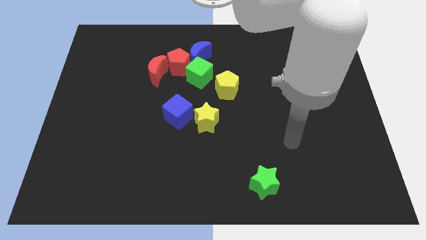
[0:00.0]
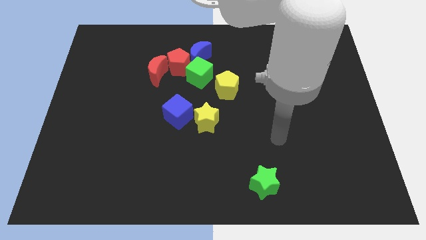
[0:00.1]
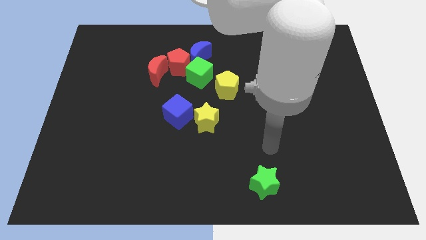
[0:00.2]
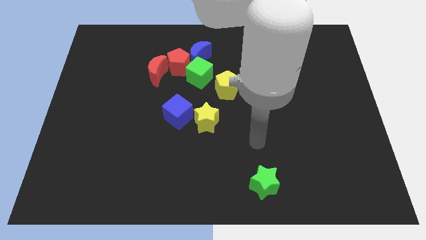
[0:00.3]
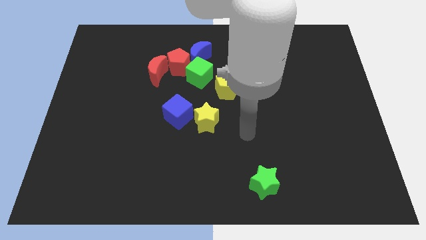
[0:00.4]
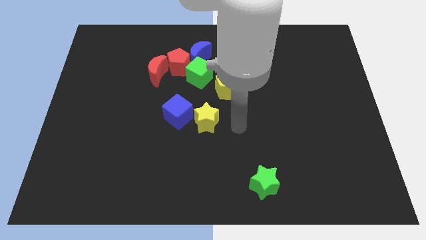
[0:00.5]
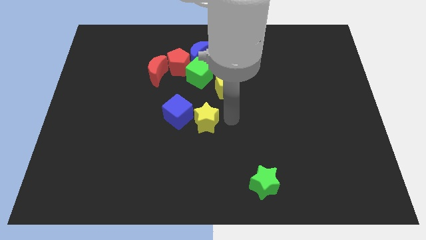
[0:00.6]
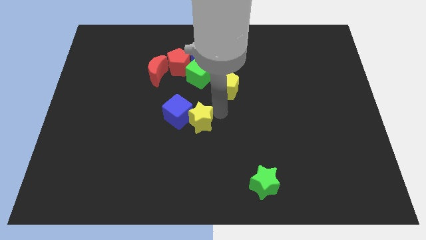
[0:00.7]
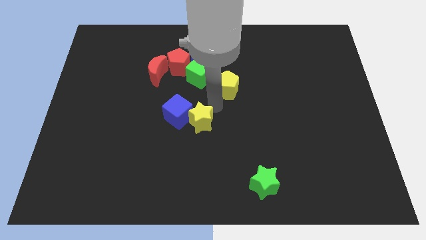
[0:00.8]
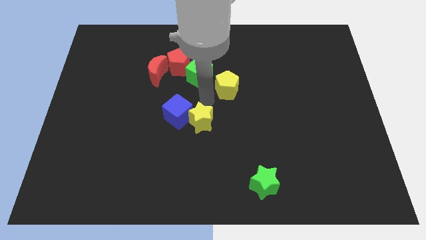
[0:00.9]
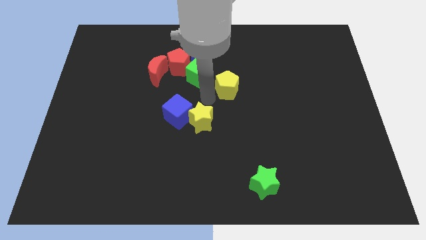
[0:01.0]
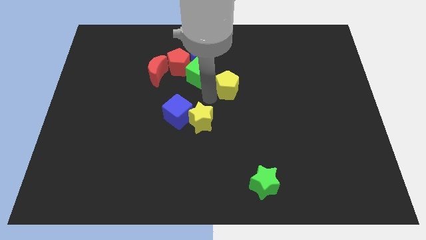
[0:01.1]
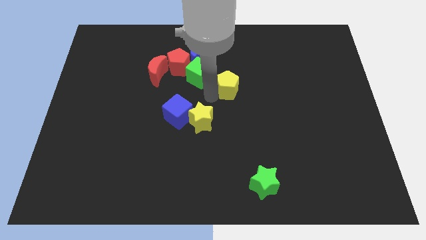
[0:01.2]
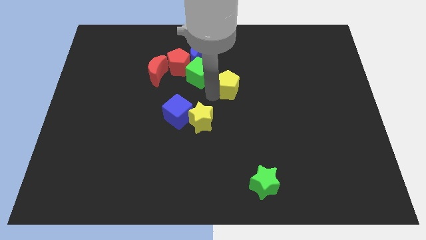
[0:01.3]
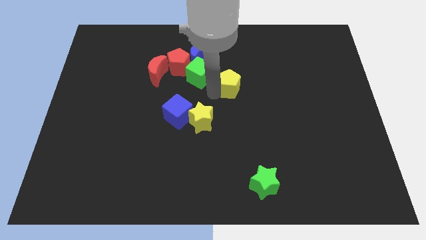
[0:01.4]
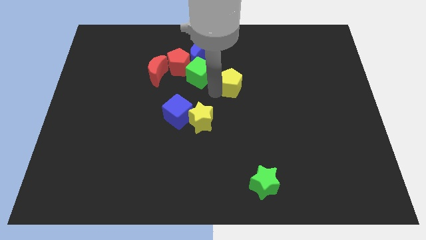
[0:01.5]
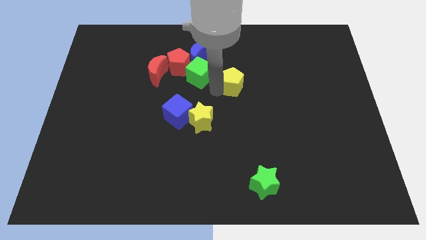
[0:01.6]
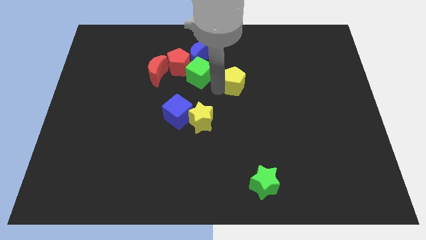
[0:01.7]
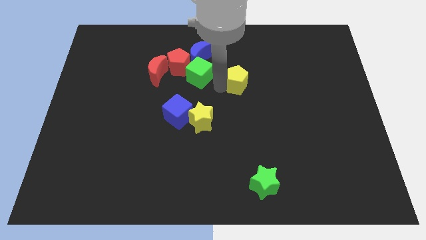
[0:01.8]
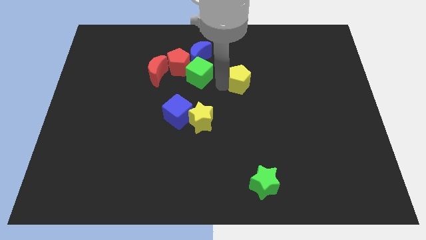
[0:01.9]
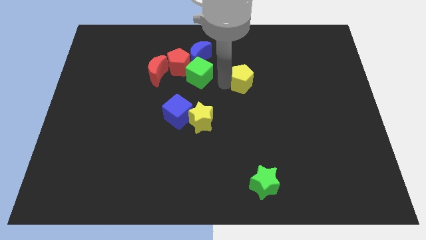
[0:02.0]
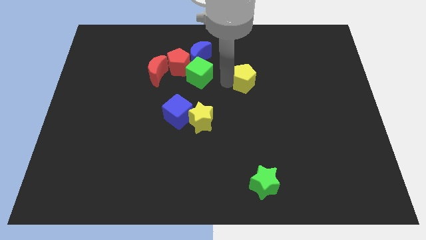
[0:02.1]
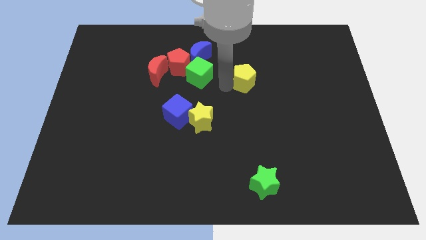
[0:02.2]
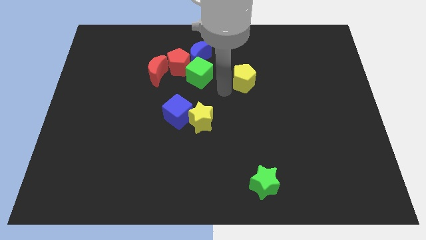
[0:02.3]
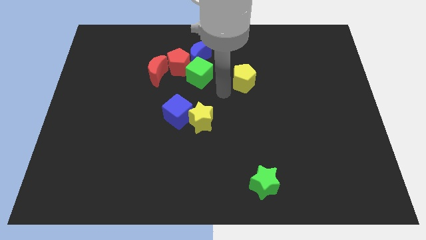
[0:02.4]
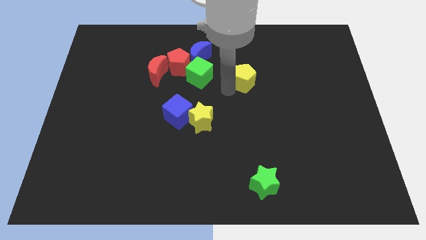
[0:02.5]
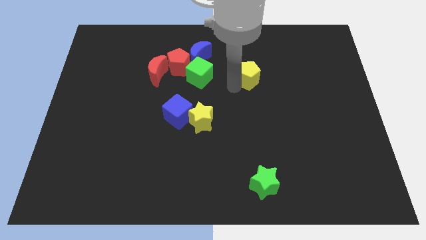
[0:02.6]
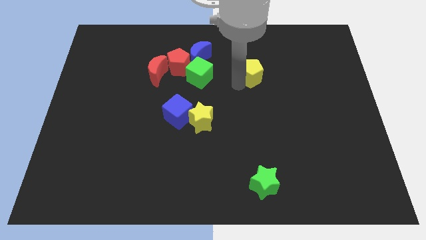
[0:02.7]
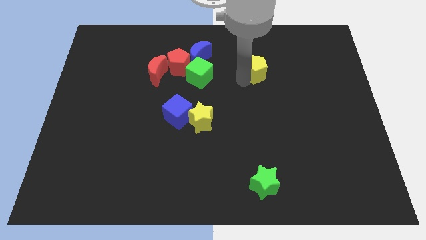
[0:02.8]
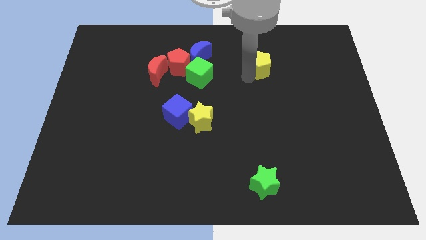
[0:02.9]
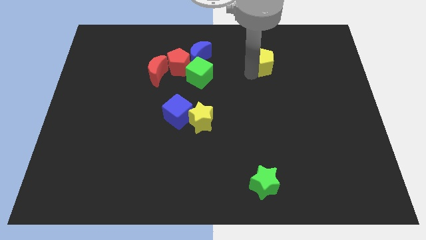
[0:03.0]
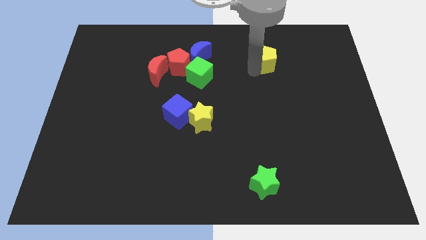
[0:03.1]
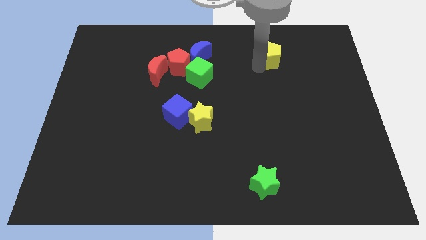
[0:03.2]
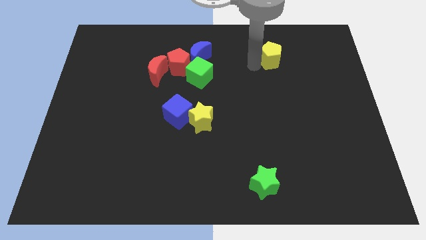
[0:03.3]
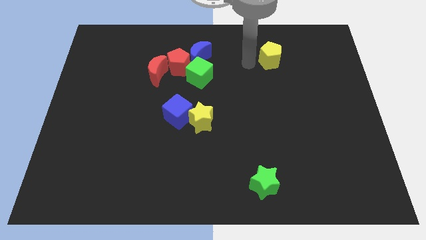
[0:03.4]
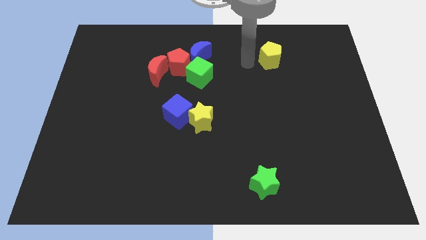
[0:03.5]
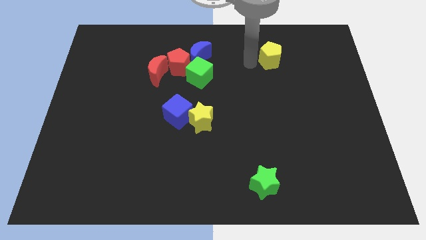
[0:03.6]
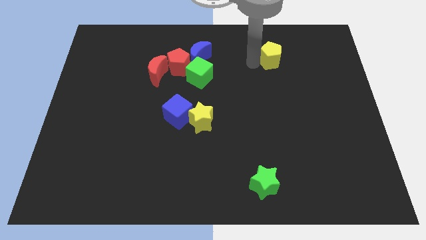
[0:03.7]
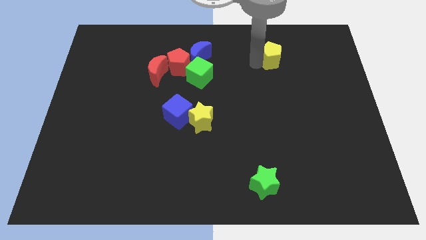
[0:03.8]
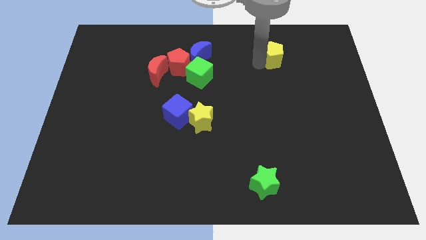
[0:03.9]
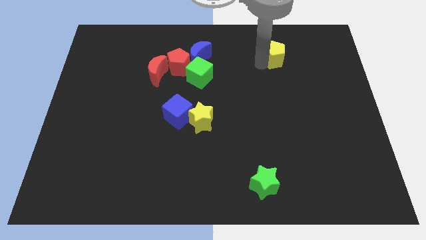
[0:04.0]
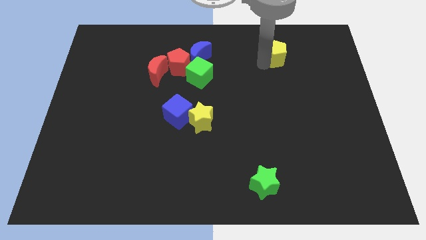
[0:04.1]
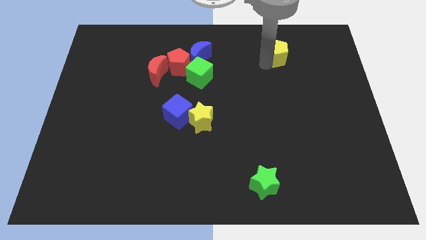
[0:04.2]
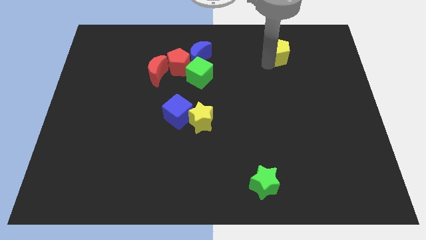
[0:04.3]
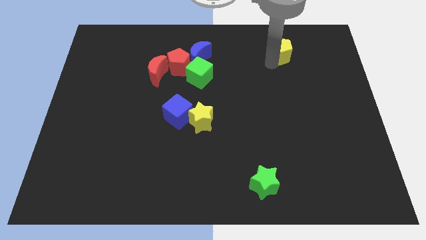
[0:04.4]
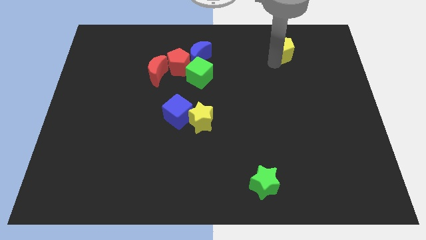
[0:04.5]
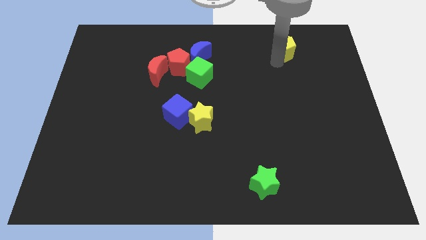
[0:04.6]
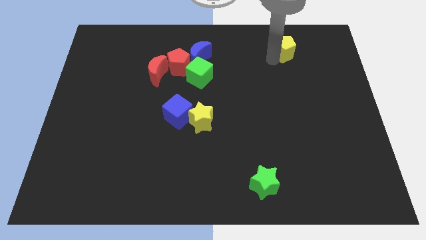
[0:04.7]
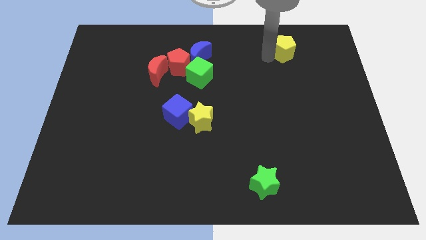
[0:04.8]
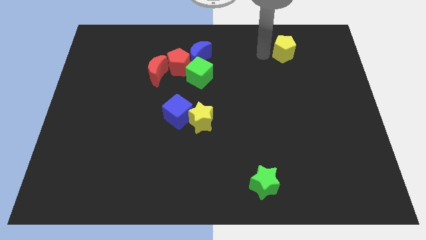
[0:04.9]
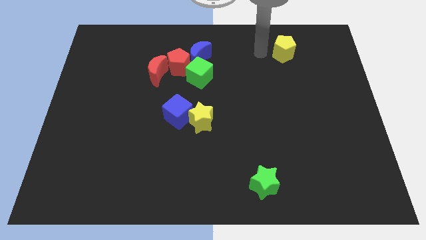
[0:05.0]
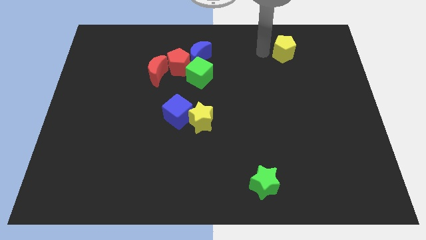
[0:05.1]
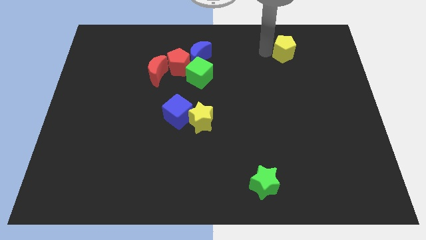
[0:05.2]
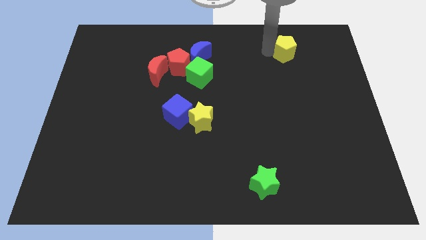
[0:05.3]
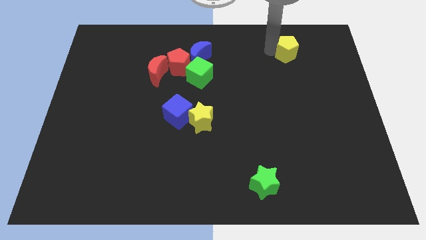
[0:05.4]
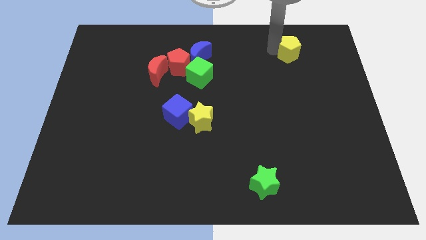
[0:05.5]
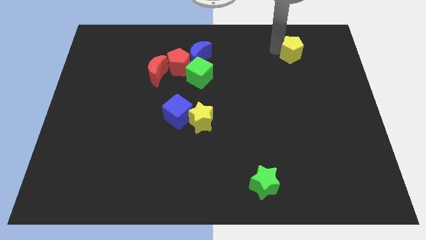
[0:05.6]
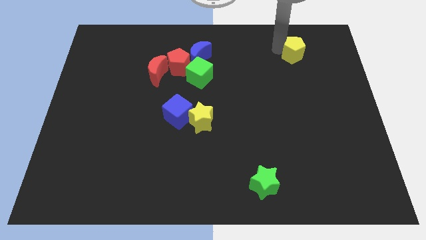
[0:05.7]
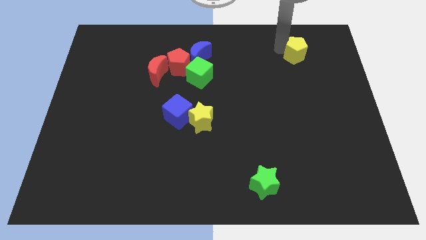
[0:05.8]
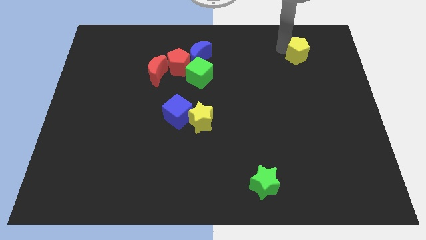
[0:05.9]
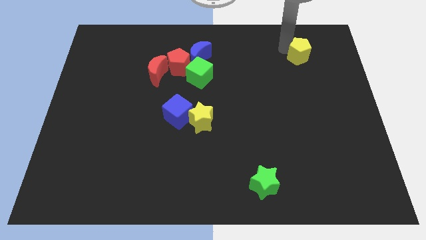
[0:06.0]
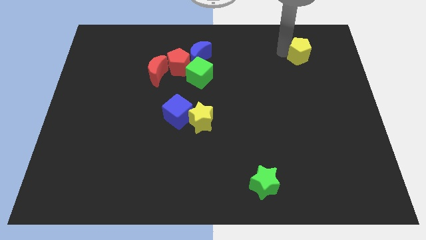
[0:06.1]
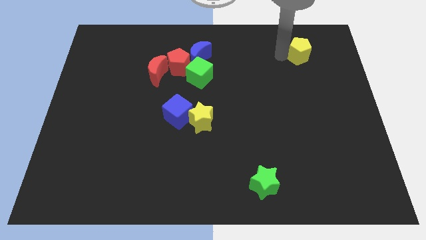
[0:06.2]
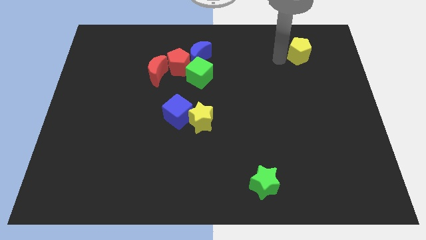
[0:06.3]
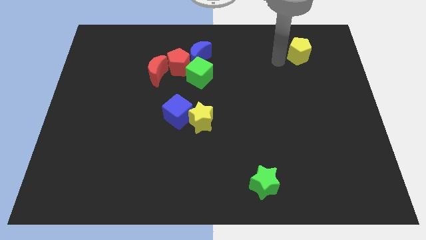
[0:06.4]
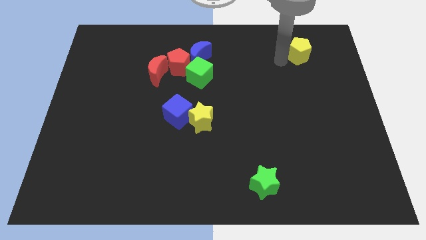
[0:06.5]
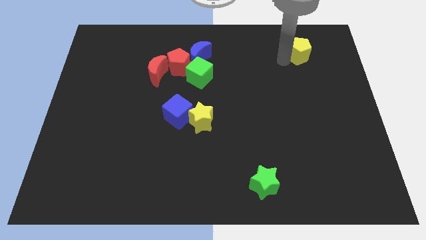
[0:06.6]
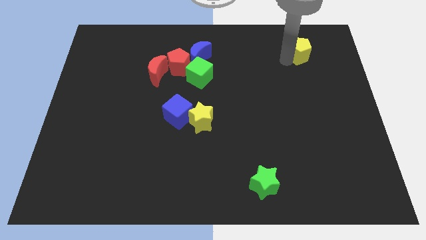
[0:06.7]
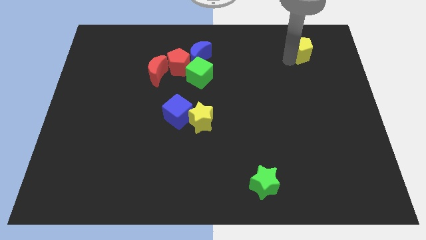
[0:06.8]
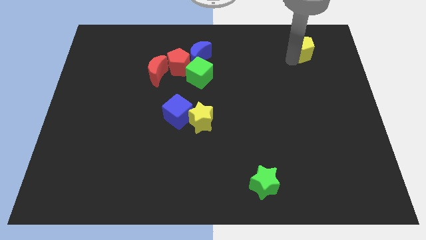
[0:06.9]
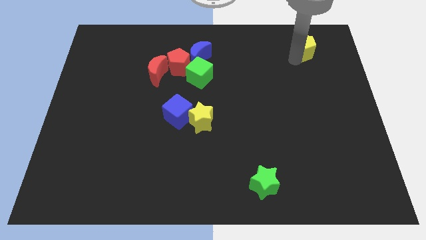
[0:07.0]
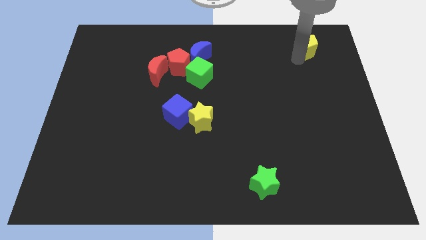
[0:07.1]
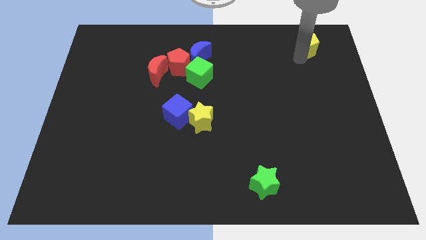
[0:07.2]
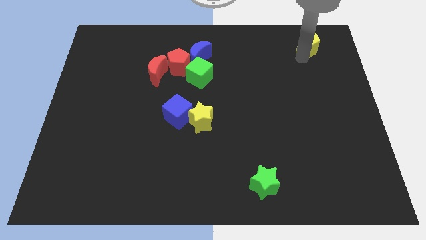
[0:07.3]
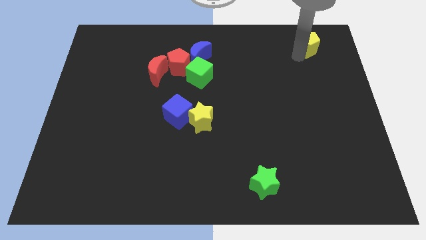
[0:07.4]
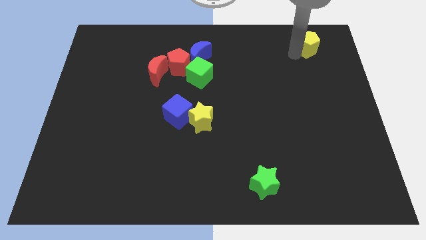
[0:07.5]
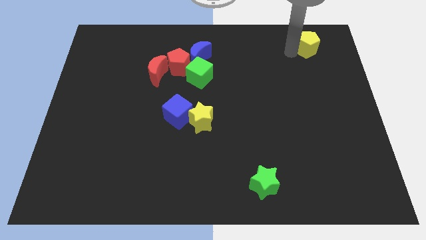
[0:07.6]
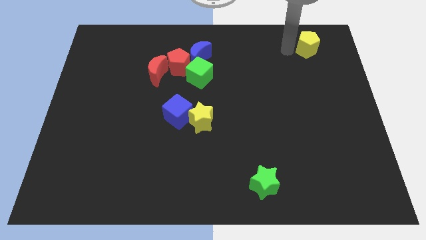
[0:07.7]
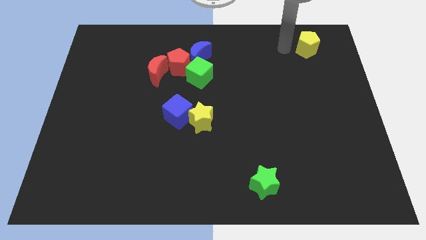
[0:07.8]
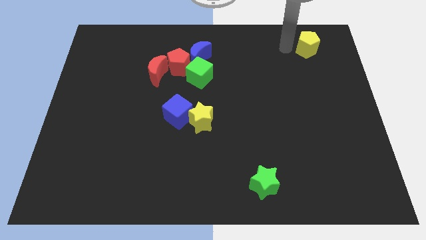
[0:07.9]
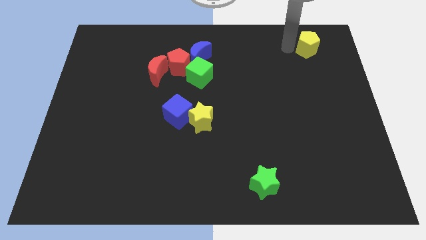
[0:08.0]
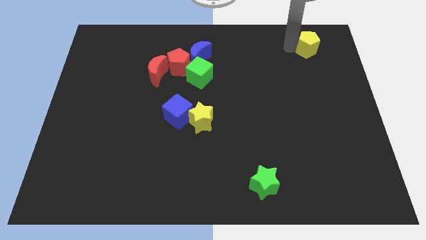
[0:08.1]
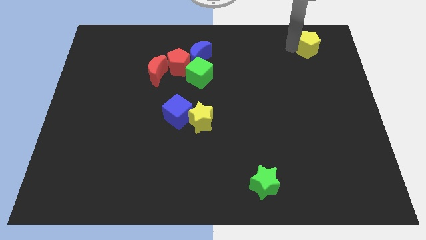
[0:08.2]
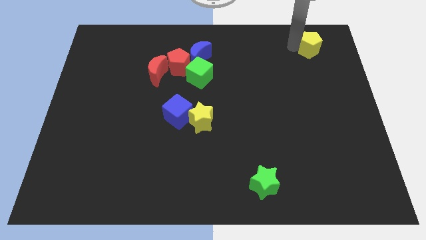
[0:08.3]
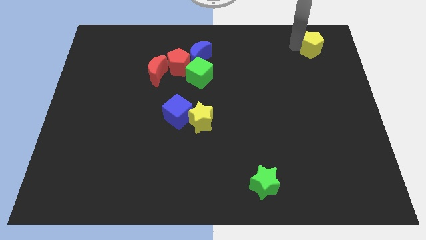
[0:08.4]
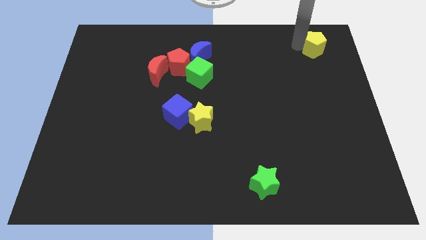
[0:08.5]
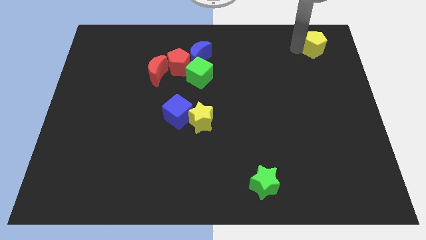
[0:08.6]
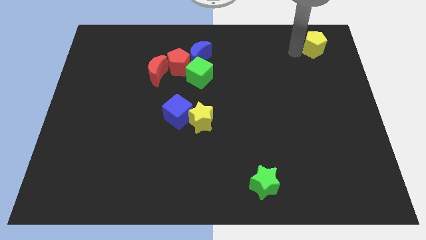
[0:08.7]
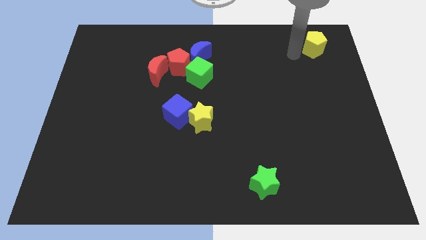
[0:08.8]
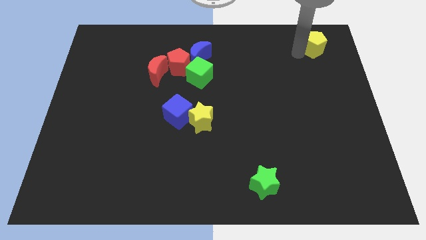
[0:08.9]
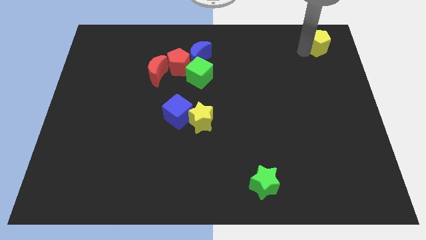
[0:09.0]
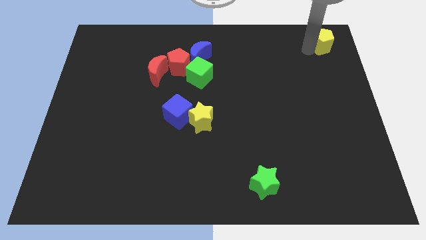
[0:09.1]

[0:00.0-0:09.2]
slide the yellow pentagon to the top right of the board
